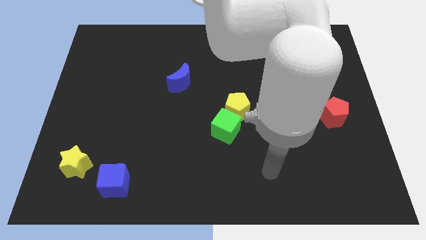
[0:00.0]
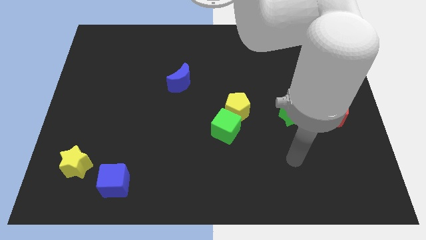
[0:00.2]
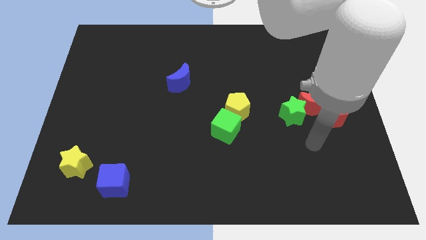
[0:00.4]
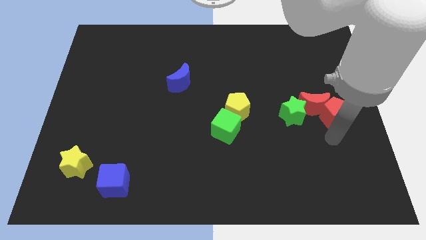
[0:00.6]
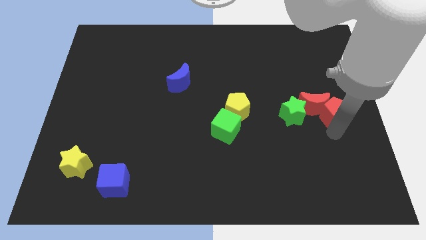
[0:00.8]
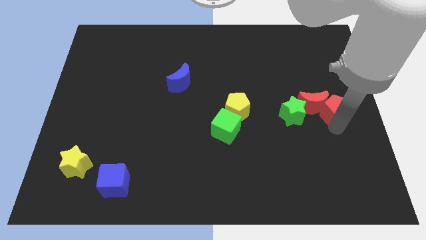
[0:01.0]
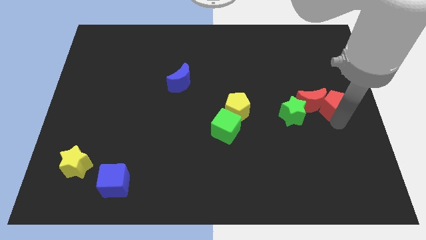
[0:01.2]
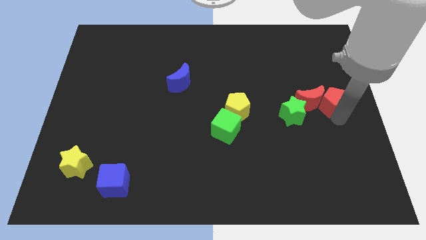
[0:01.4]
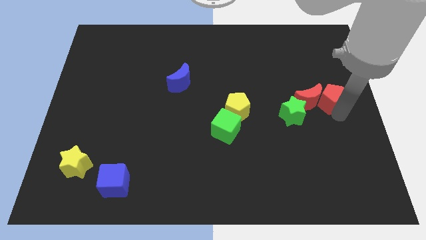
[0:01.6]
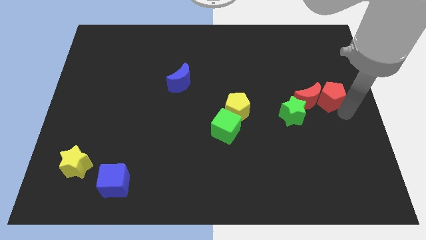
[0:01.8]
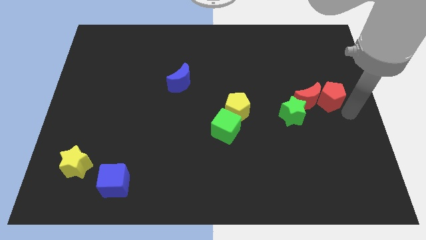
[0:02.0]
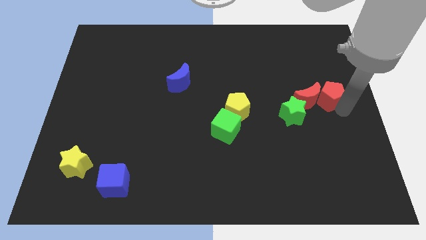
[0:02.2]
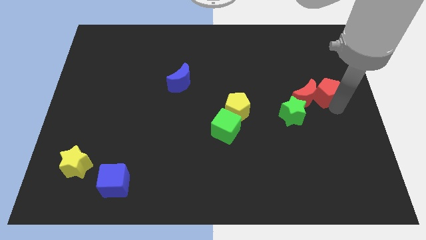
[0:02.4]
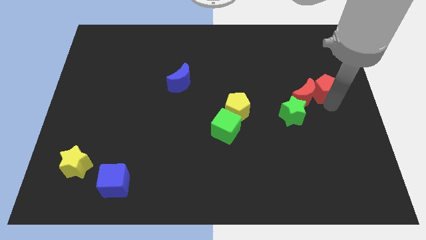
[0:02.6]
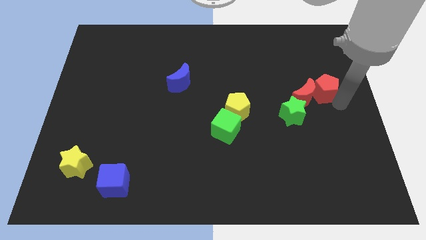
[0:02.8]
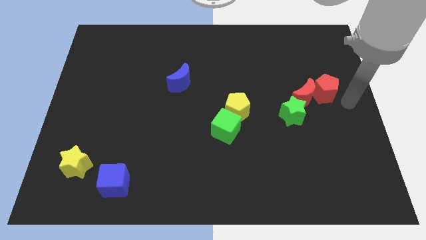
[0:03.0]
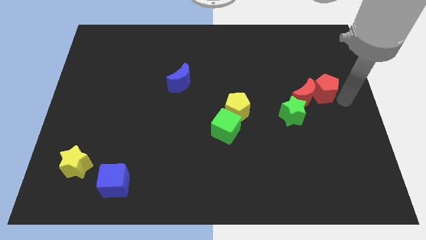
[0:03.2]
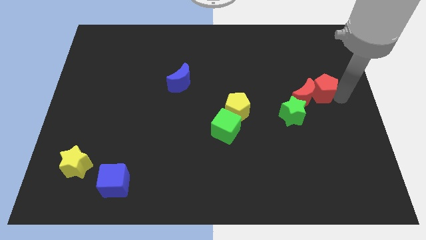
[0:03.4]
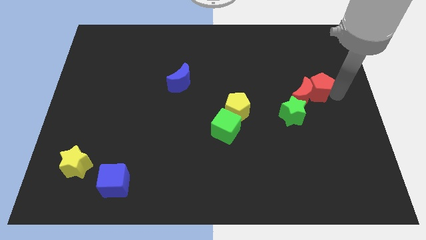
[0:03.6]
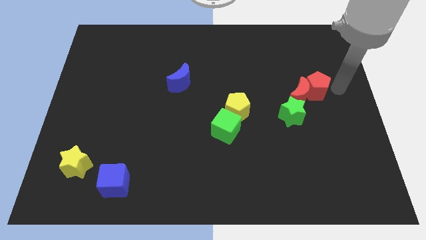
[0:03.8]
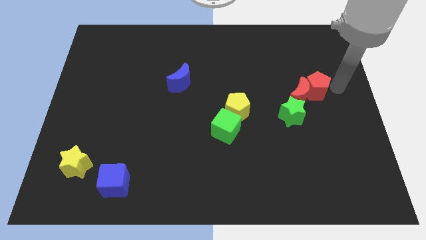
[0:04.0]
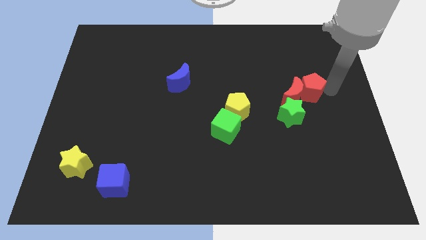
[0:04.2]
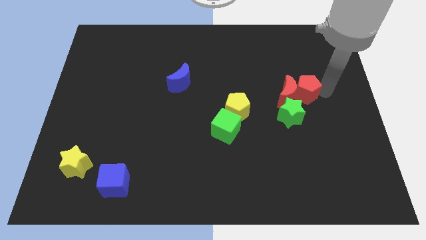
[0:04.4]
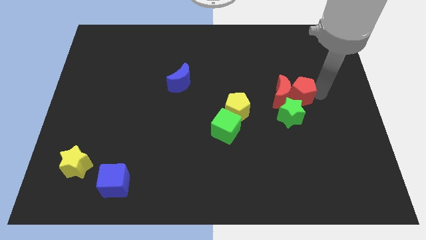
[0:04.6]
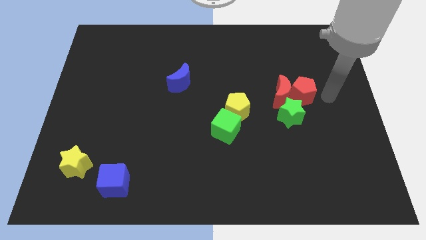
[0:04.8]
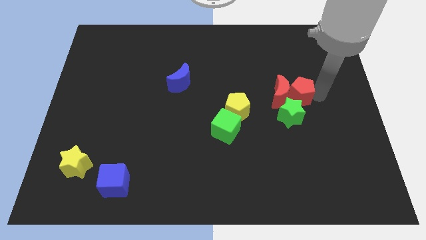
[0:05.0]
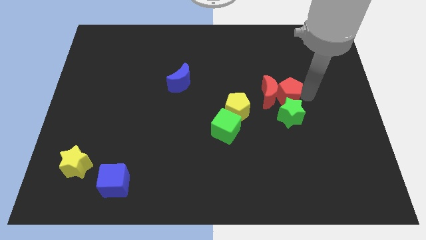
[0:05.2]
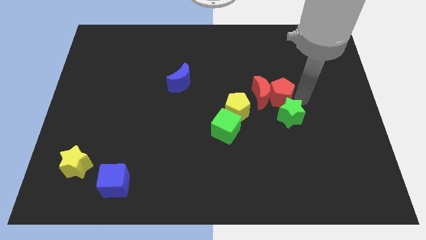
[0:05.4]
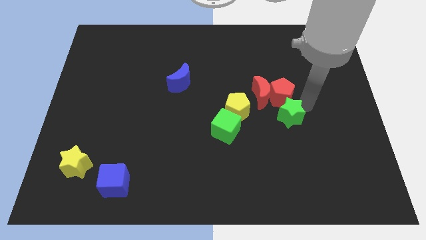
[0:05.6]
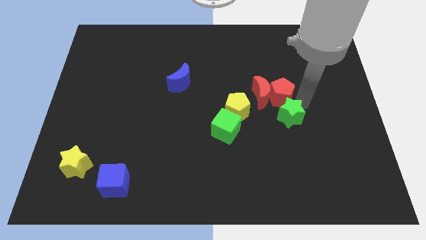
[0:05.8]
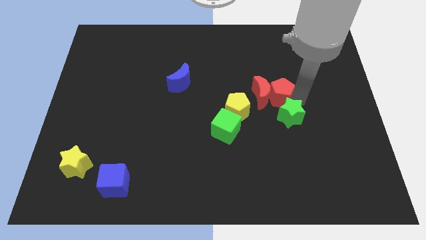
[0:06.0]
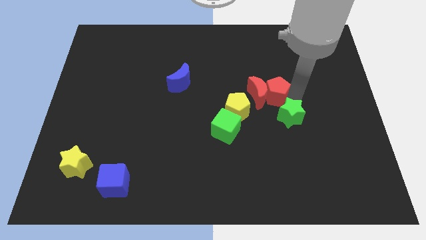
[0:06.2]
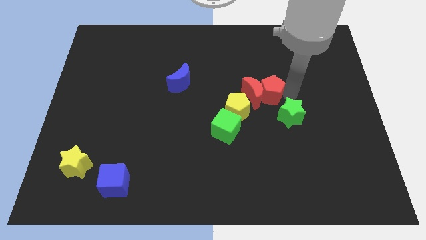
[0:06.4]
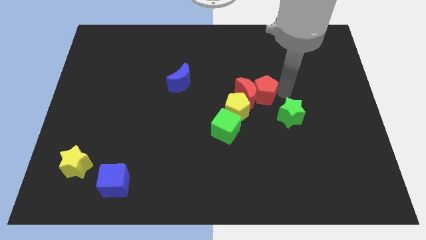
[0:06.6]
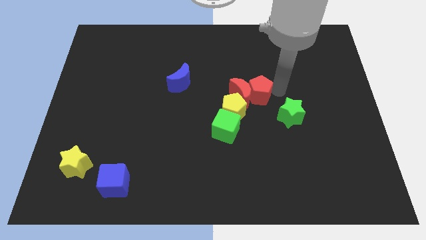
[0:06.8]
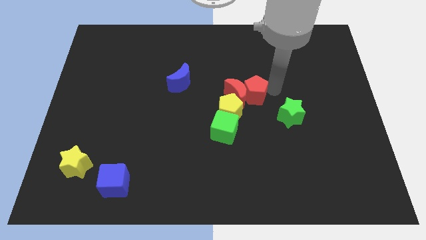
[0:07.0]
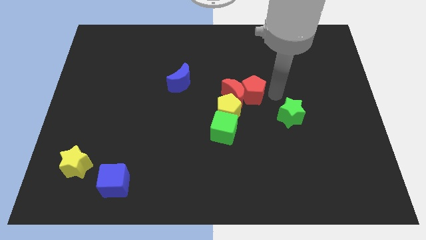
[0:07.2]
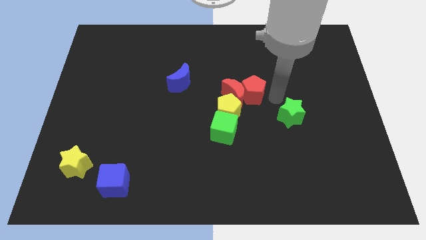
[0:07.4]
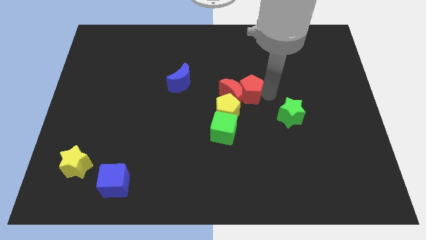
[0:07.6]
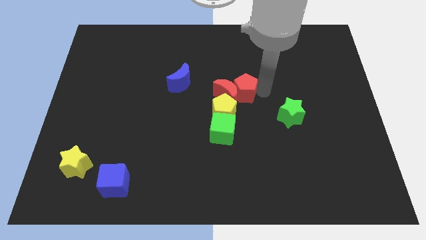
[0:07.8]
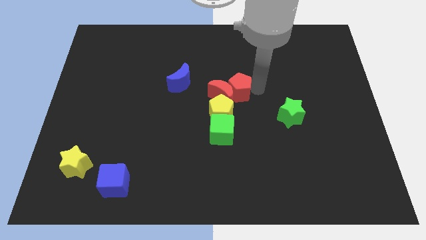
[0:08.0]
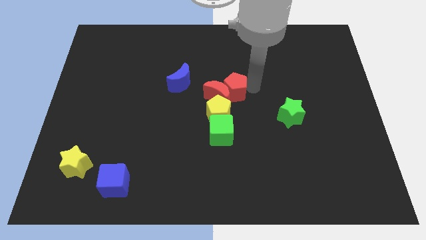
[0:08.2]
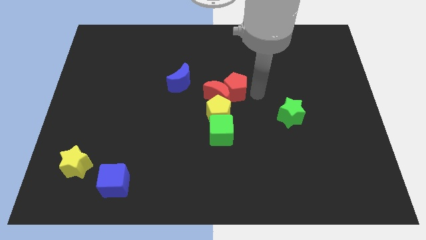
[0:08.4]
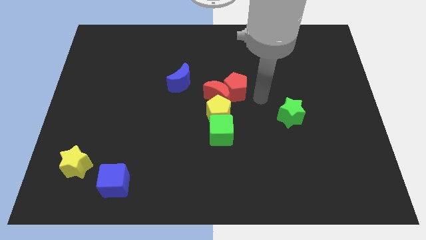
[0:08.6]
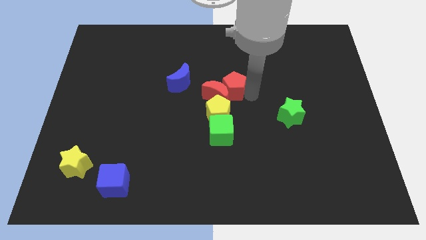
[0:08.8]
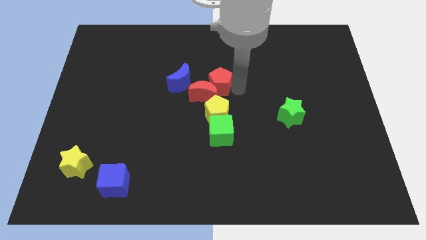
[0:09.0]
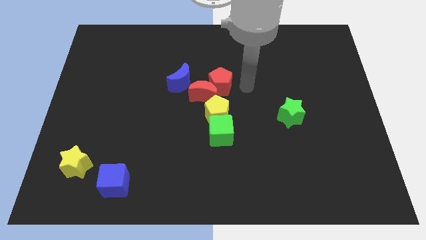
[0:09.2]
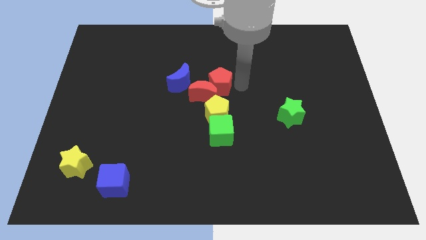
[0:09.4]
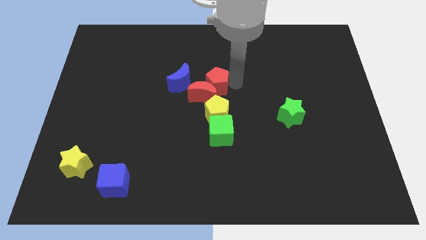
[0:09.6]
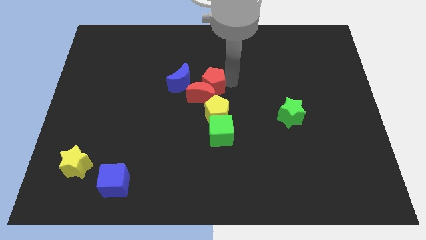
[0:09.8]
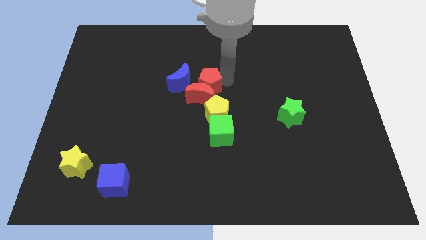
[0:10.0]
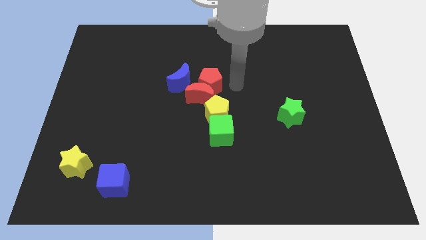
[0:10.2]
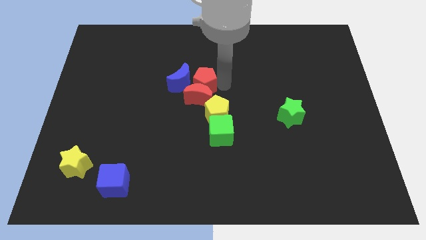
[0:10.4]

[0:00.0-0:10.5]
push the red pentagon next to the blue moon

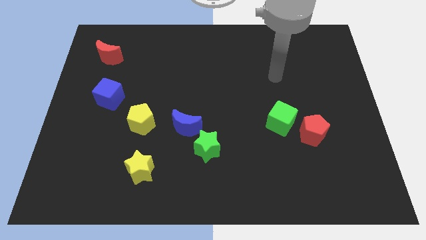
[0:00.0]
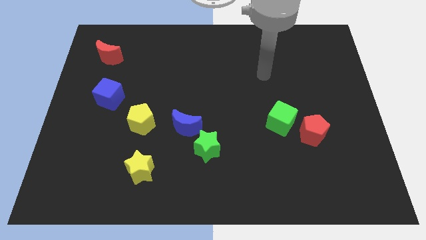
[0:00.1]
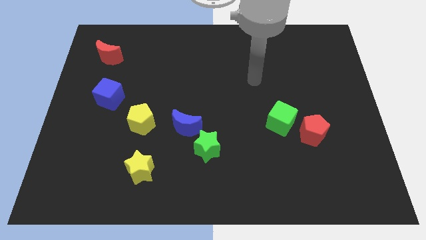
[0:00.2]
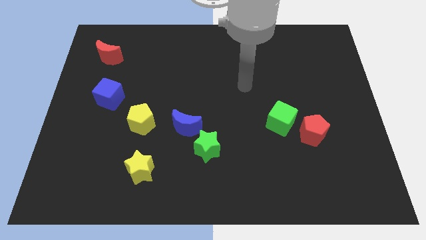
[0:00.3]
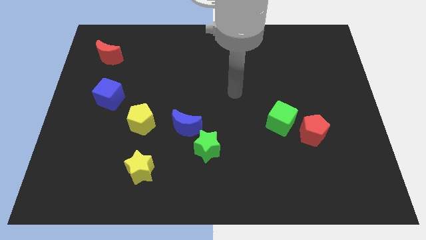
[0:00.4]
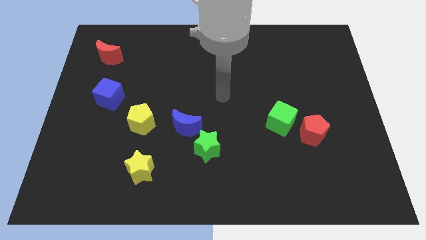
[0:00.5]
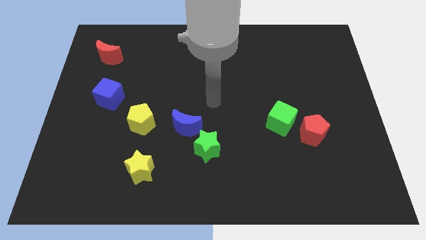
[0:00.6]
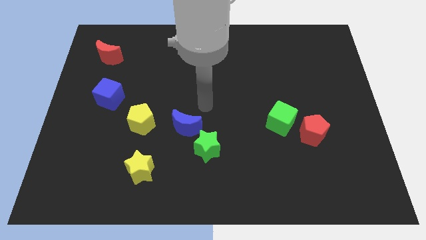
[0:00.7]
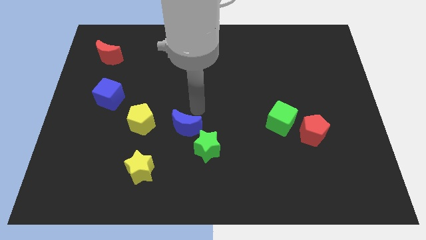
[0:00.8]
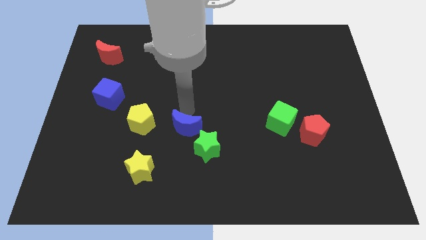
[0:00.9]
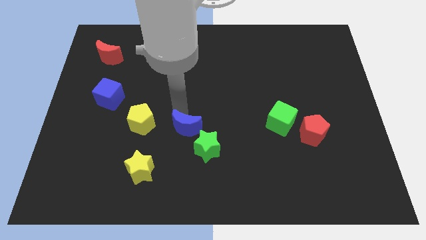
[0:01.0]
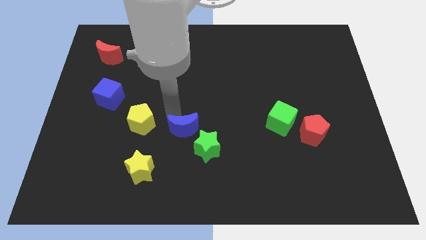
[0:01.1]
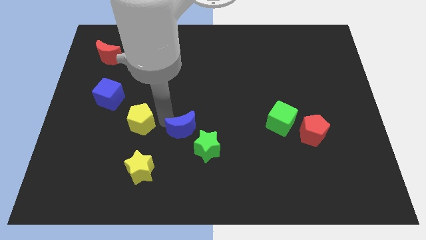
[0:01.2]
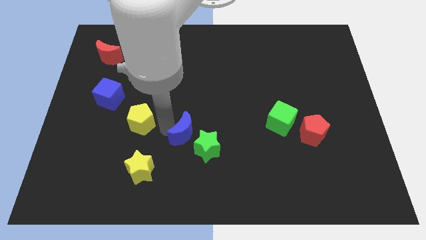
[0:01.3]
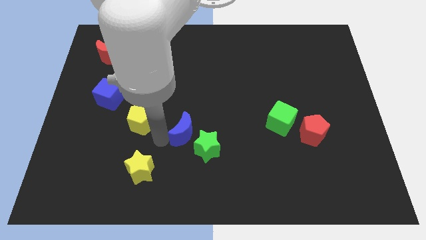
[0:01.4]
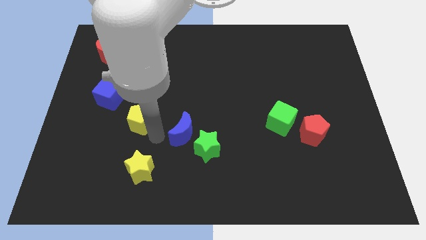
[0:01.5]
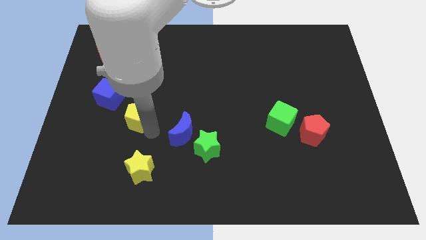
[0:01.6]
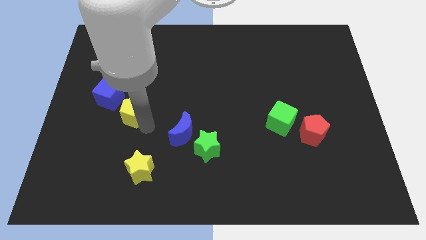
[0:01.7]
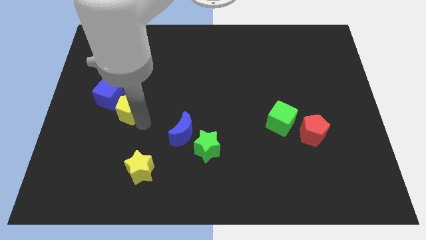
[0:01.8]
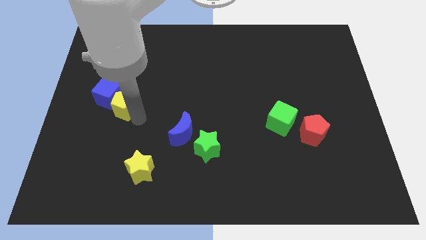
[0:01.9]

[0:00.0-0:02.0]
move the yellow pentagon towards the blue cube
